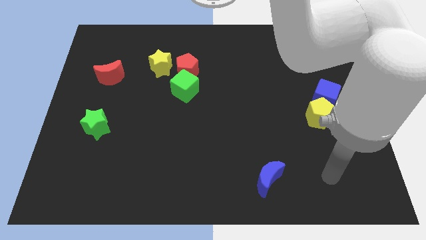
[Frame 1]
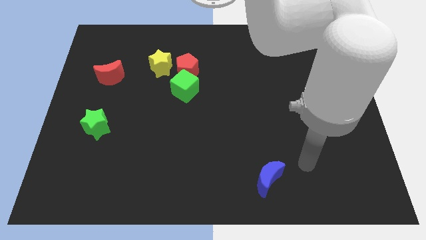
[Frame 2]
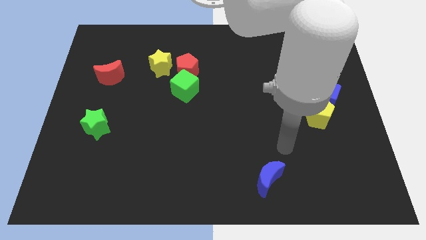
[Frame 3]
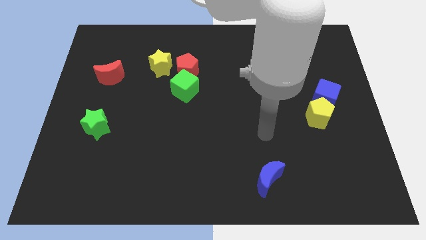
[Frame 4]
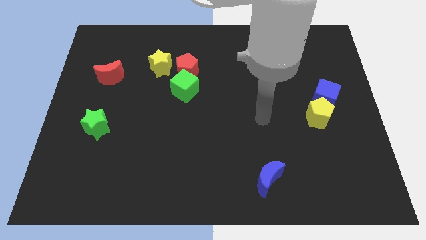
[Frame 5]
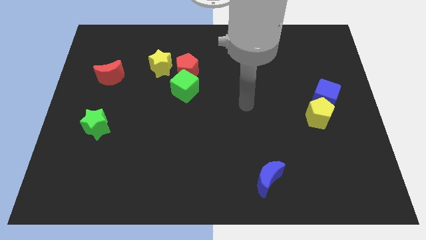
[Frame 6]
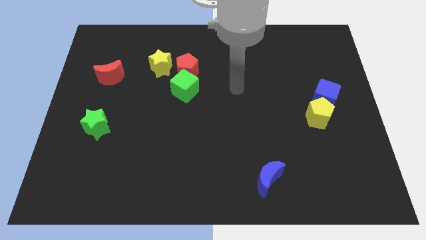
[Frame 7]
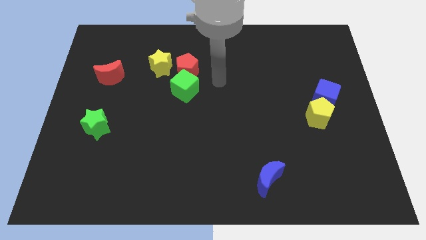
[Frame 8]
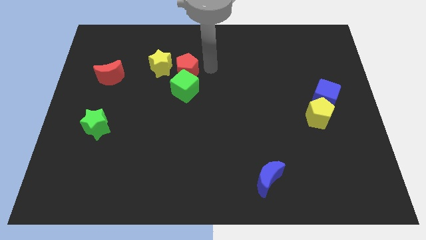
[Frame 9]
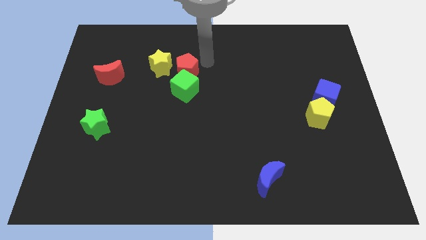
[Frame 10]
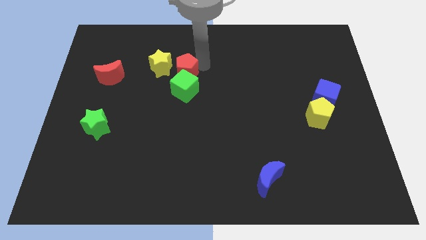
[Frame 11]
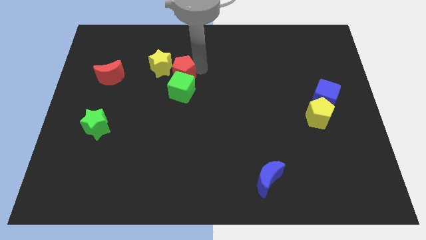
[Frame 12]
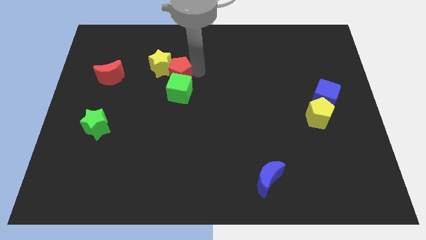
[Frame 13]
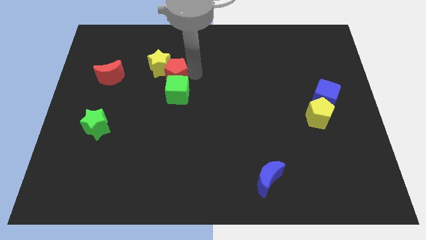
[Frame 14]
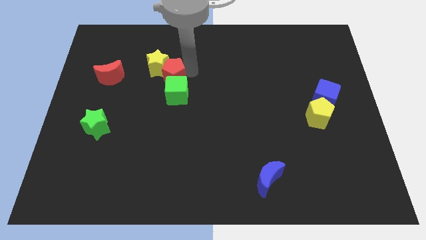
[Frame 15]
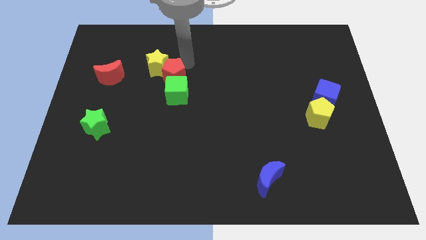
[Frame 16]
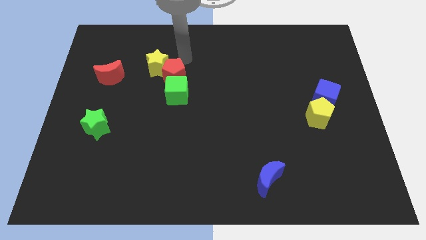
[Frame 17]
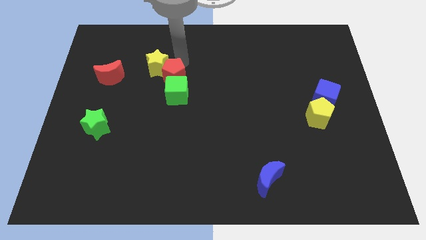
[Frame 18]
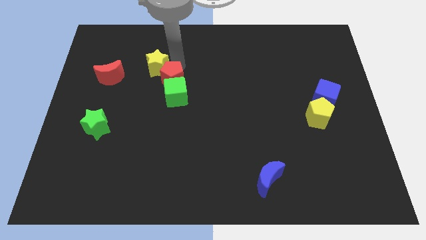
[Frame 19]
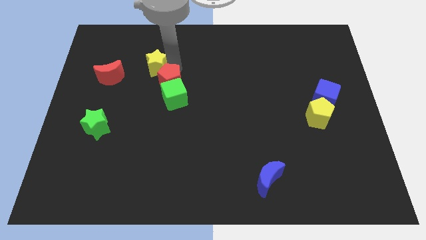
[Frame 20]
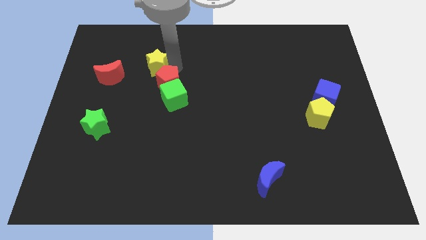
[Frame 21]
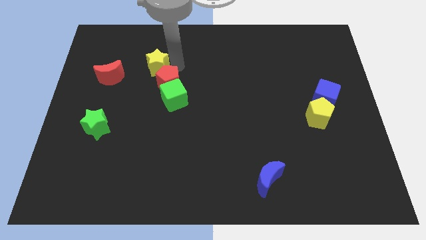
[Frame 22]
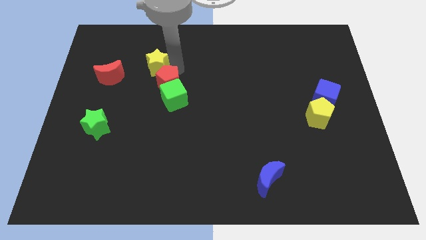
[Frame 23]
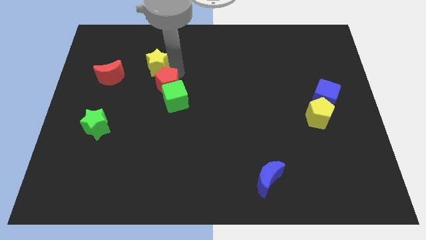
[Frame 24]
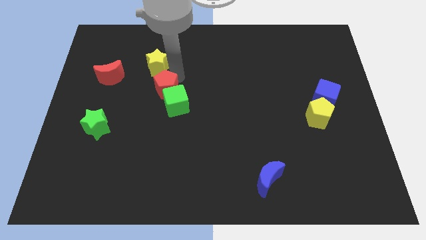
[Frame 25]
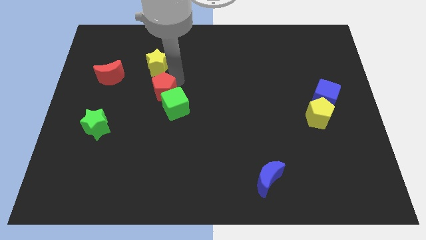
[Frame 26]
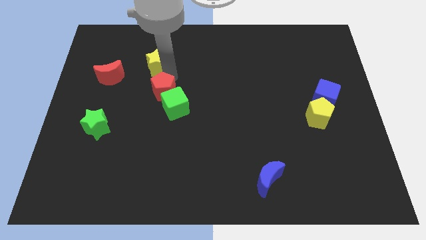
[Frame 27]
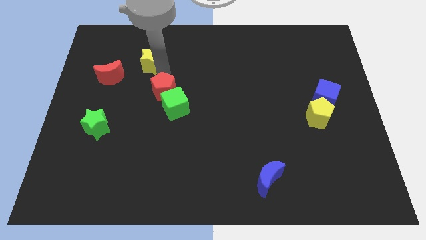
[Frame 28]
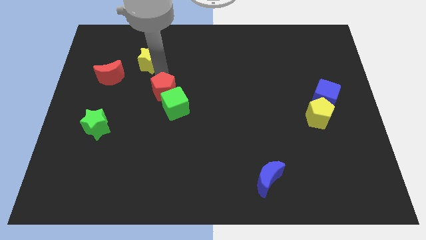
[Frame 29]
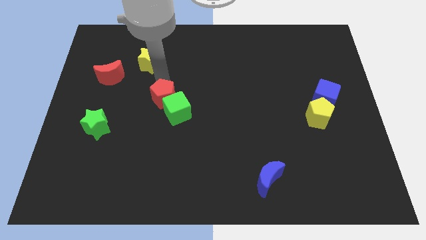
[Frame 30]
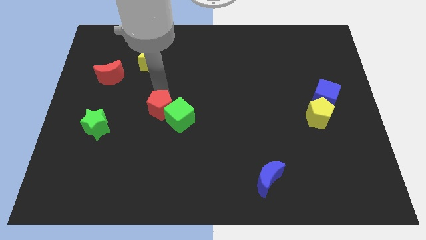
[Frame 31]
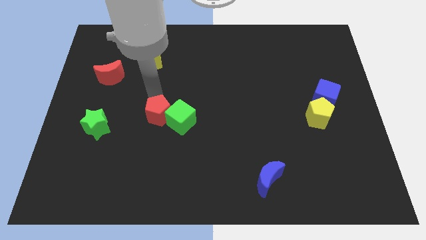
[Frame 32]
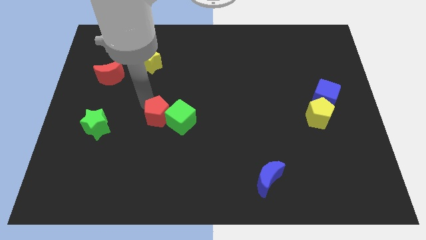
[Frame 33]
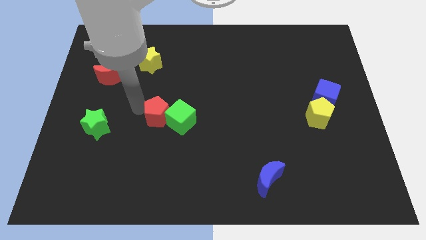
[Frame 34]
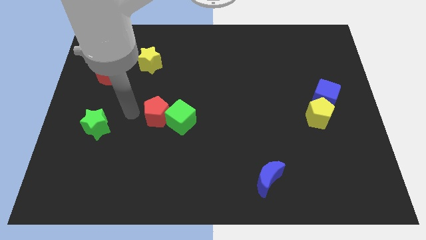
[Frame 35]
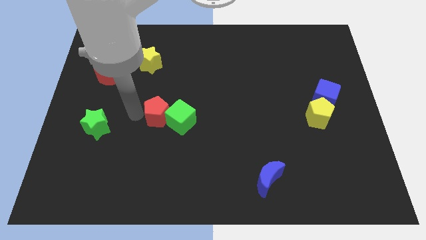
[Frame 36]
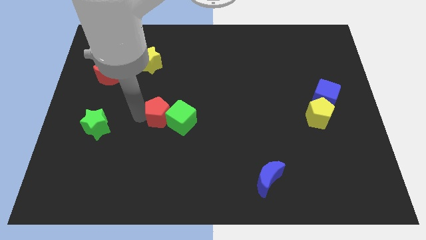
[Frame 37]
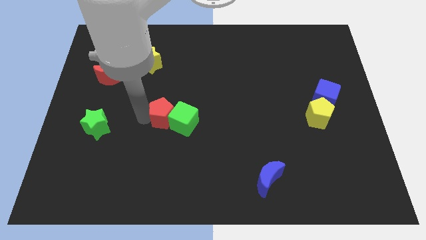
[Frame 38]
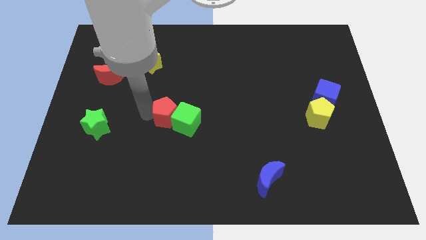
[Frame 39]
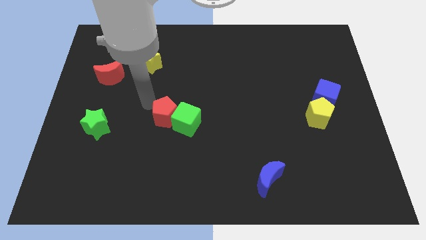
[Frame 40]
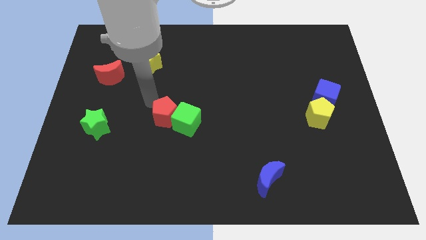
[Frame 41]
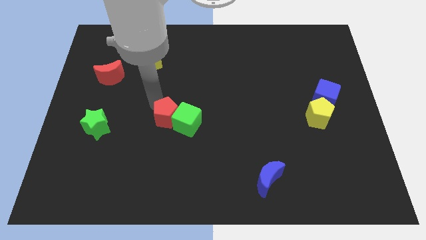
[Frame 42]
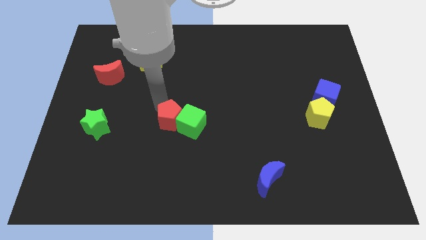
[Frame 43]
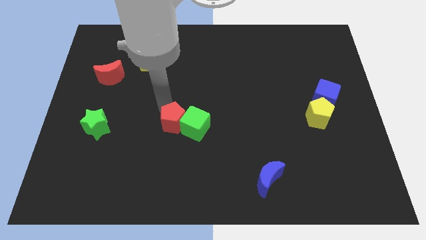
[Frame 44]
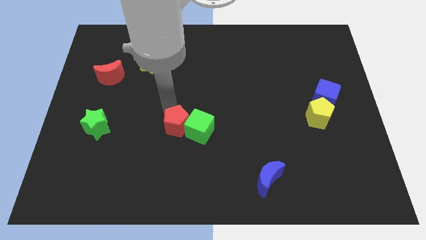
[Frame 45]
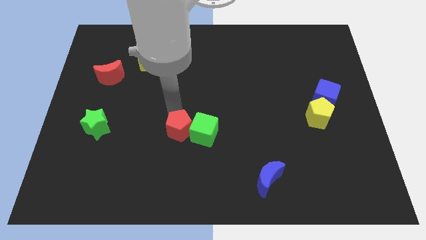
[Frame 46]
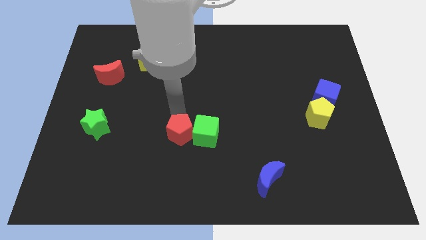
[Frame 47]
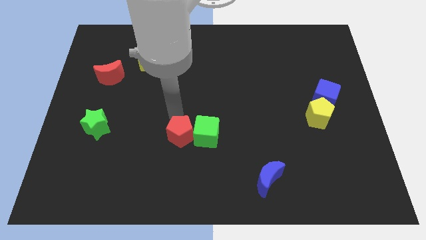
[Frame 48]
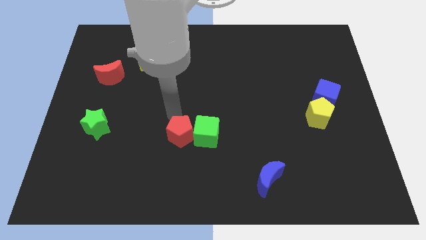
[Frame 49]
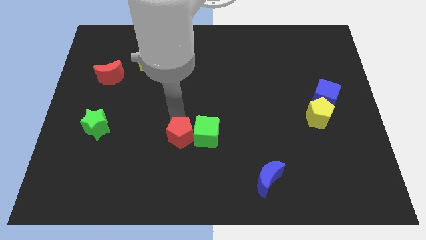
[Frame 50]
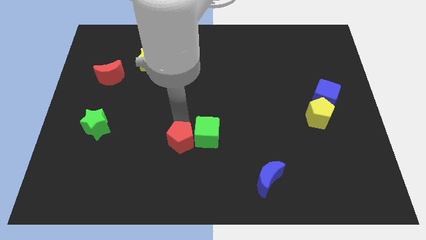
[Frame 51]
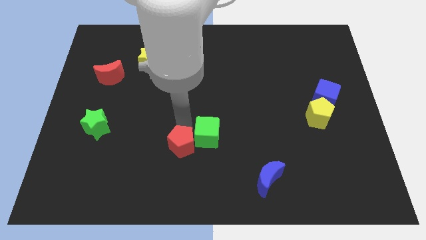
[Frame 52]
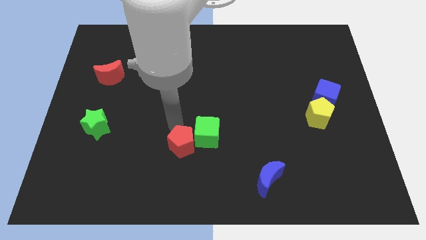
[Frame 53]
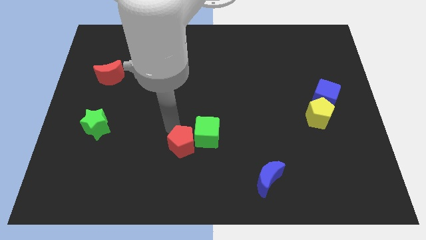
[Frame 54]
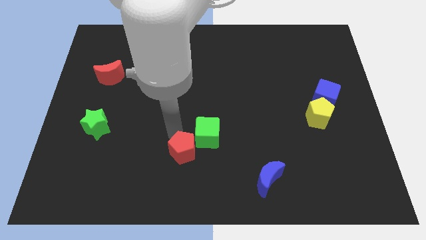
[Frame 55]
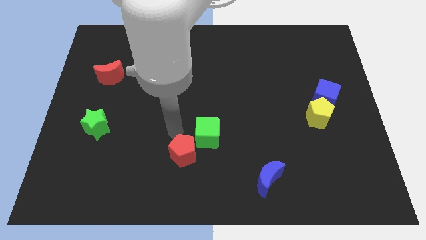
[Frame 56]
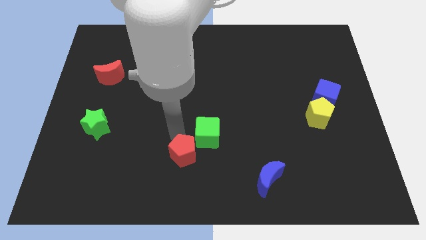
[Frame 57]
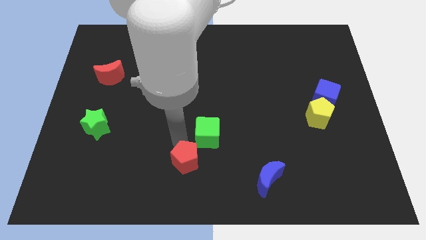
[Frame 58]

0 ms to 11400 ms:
push the red pentagon to the bottom
